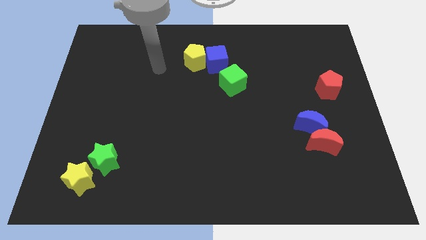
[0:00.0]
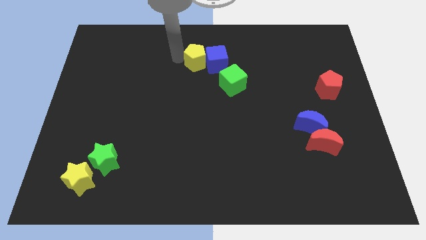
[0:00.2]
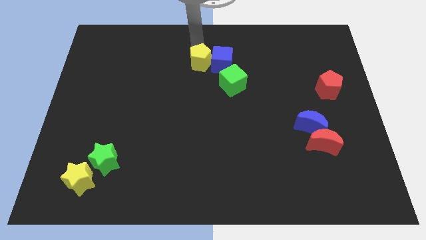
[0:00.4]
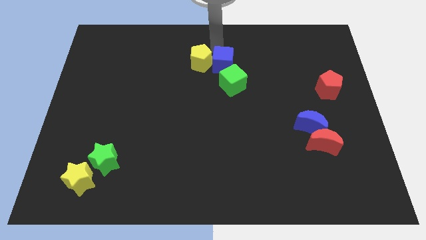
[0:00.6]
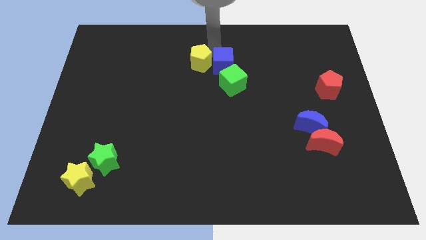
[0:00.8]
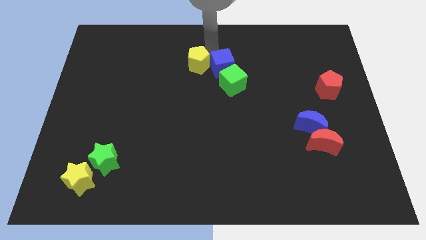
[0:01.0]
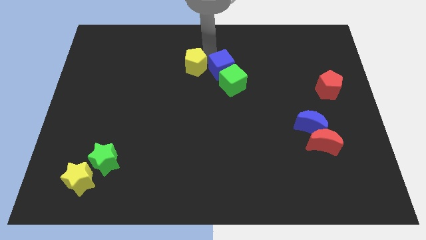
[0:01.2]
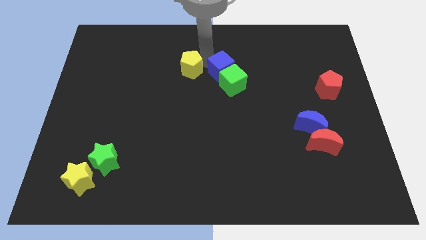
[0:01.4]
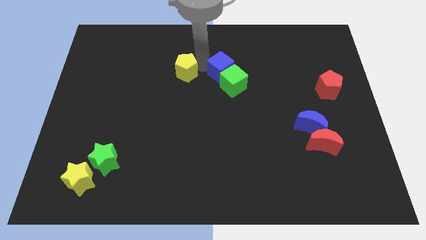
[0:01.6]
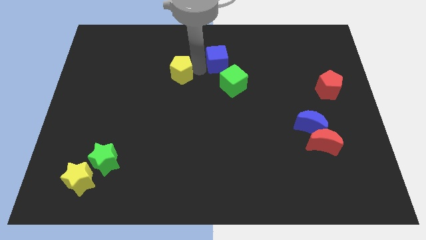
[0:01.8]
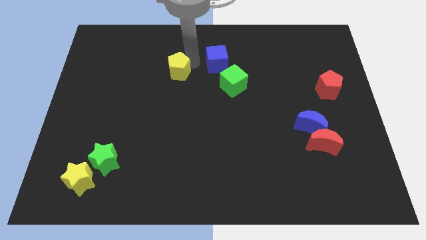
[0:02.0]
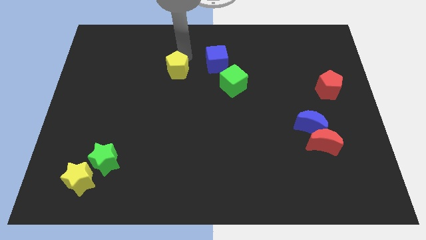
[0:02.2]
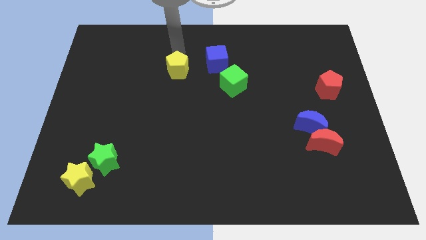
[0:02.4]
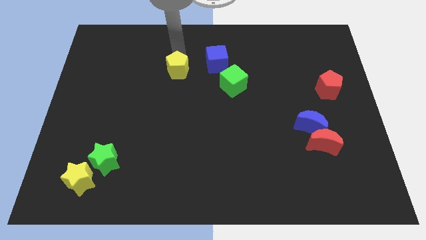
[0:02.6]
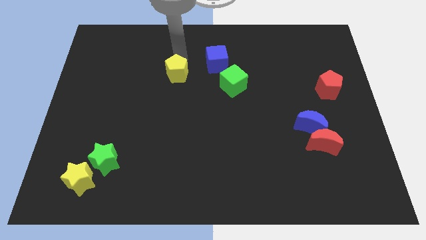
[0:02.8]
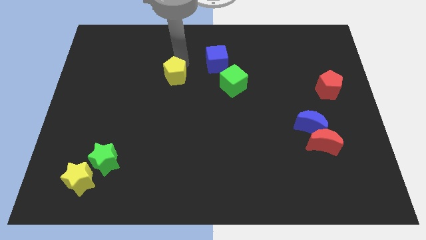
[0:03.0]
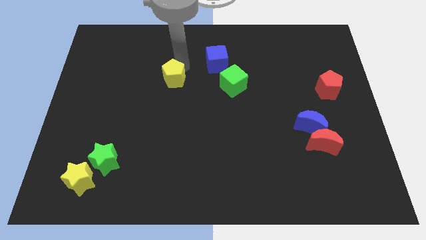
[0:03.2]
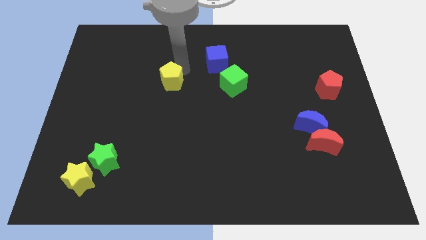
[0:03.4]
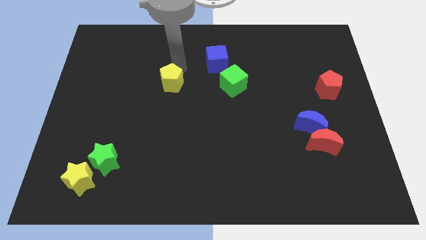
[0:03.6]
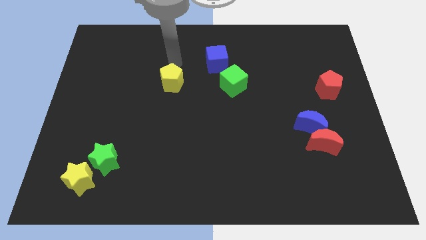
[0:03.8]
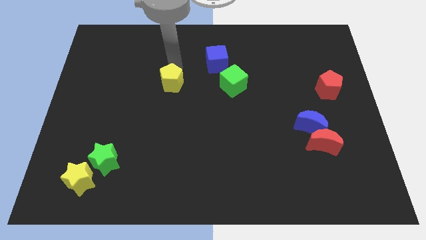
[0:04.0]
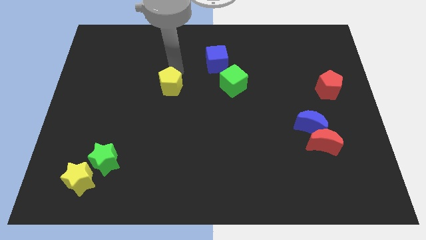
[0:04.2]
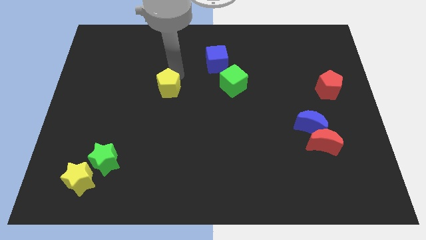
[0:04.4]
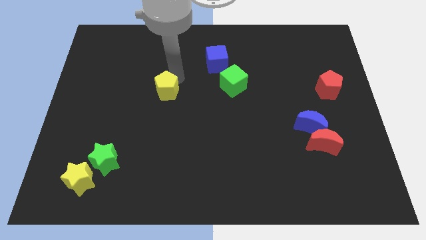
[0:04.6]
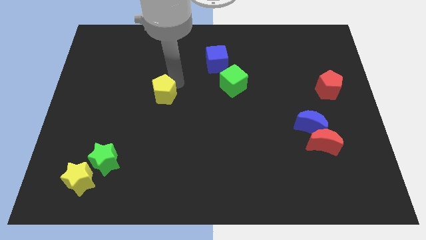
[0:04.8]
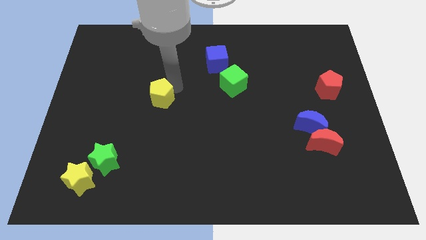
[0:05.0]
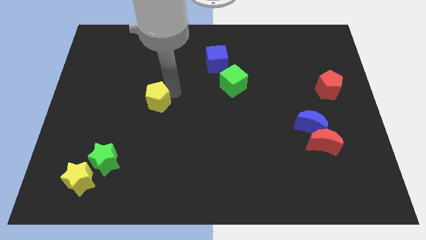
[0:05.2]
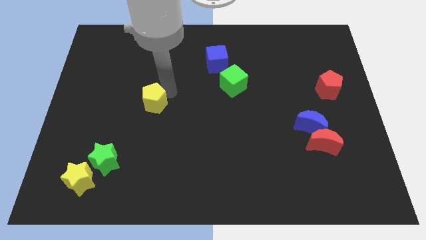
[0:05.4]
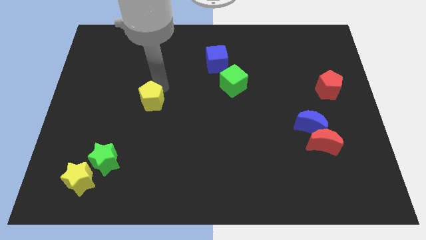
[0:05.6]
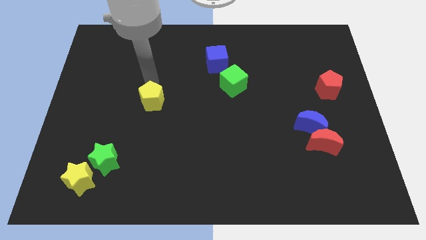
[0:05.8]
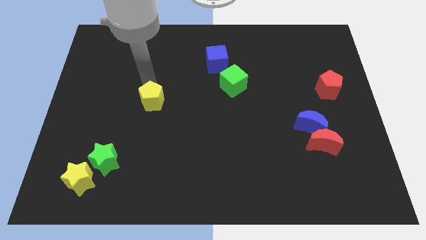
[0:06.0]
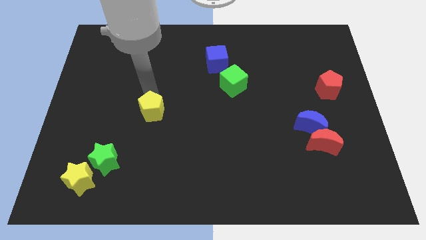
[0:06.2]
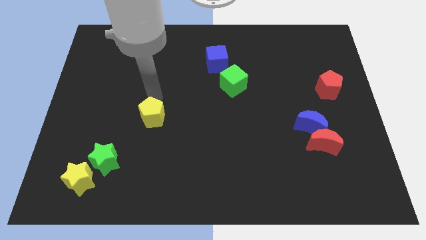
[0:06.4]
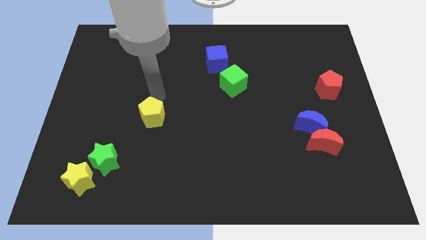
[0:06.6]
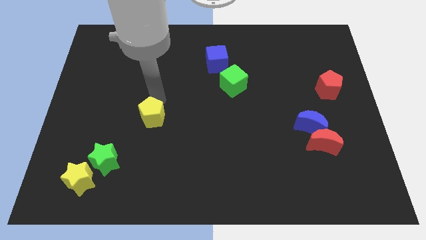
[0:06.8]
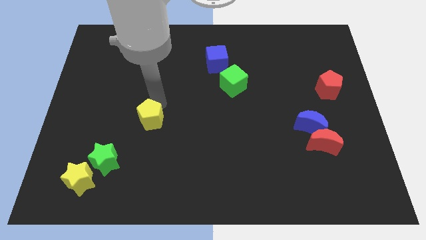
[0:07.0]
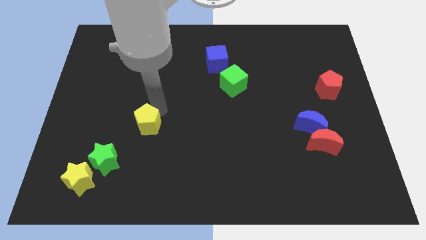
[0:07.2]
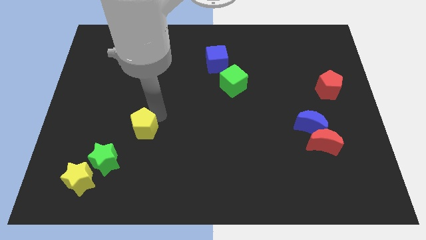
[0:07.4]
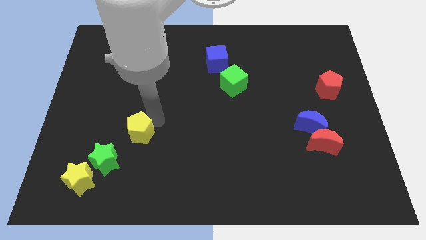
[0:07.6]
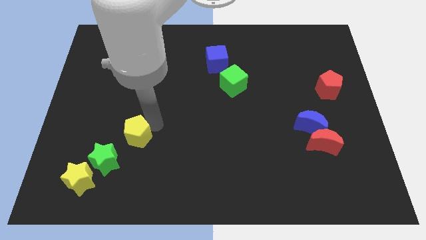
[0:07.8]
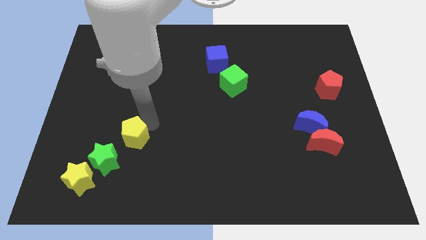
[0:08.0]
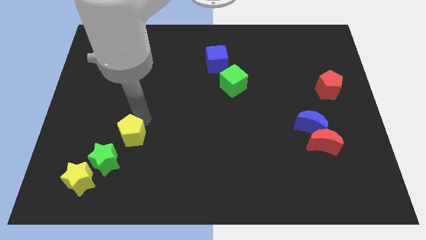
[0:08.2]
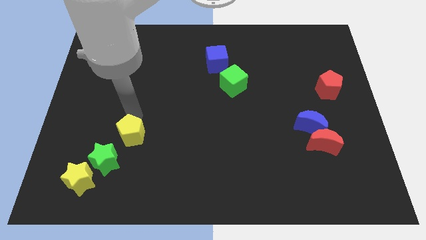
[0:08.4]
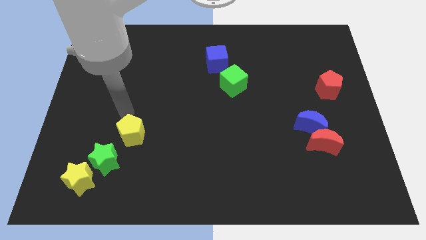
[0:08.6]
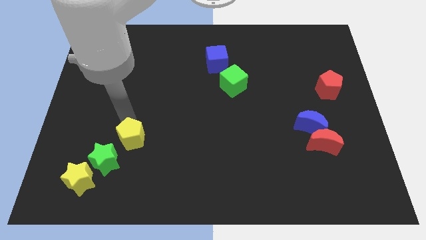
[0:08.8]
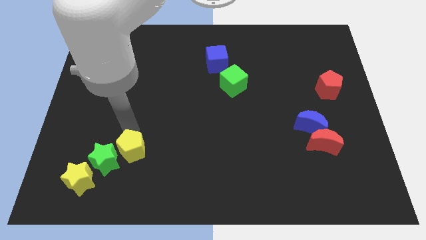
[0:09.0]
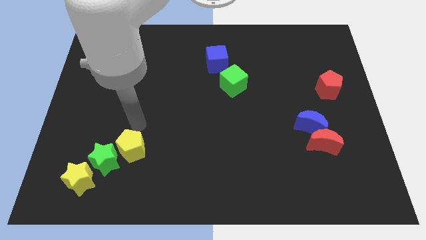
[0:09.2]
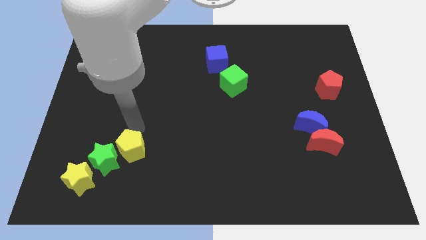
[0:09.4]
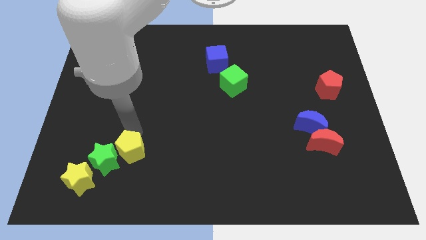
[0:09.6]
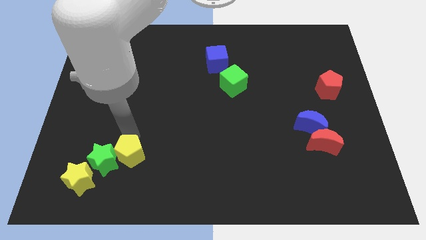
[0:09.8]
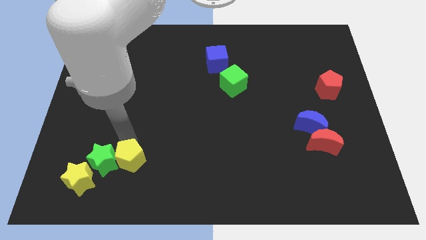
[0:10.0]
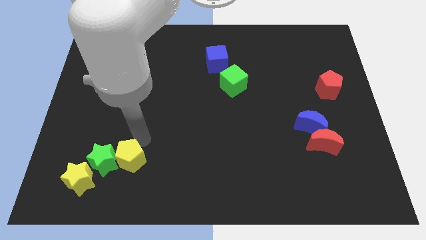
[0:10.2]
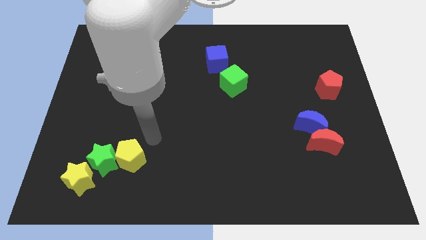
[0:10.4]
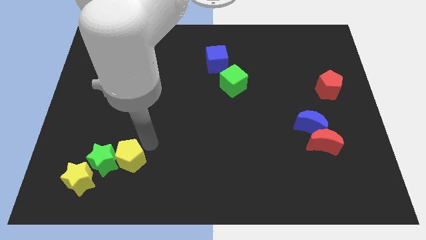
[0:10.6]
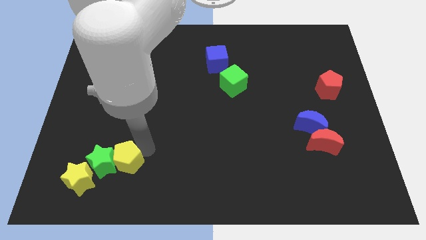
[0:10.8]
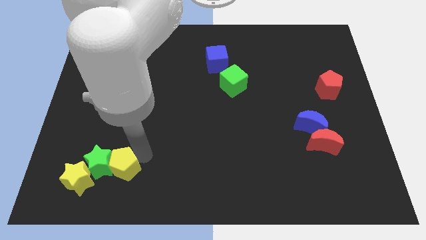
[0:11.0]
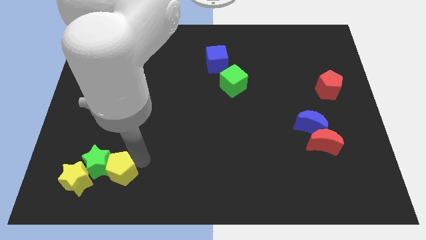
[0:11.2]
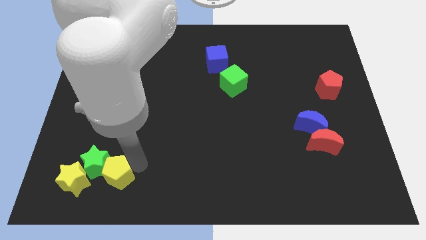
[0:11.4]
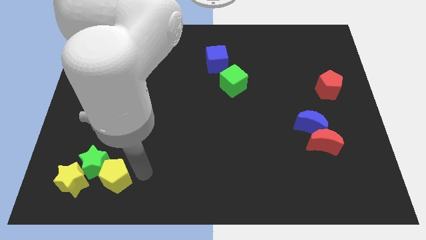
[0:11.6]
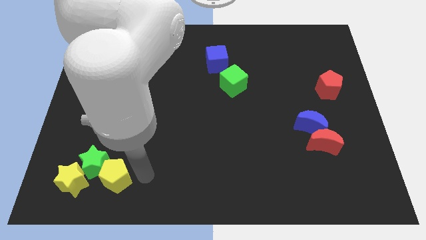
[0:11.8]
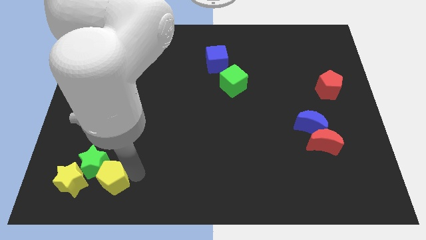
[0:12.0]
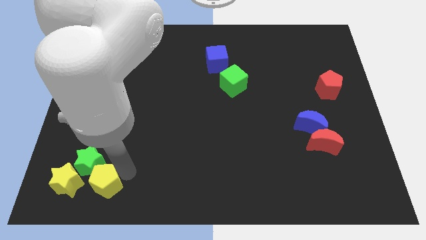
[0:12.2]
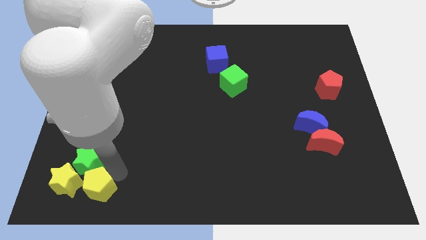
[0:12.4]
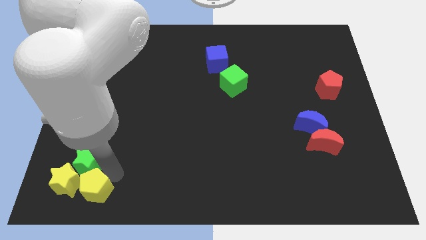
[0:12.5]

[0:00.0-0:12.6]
move the yellow pentagon next to the yellow star

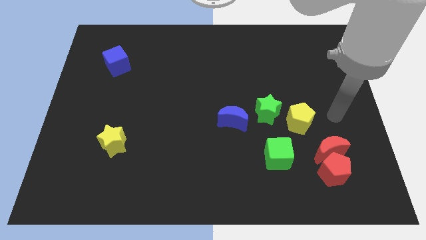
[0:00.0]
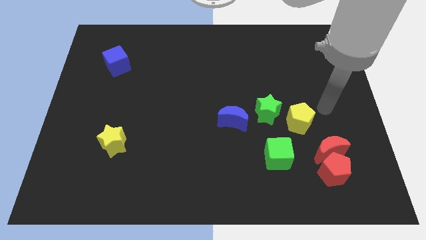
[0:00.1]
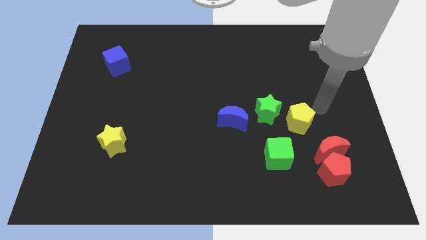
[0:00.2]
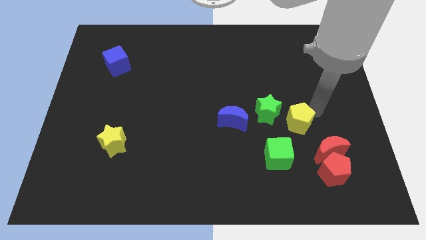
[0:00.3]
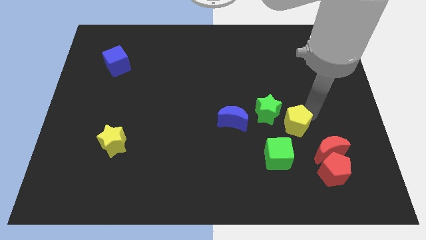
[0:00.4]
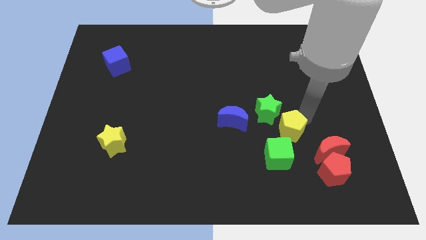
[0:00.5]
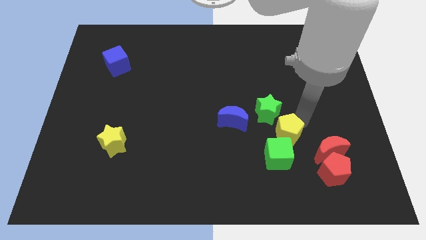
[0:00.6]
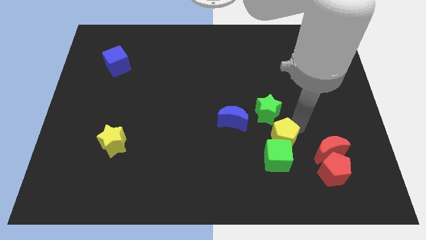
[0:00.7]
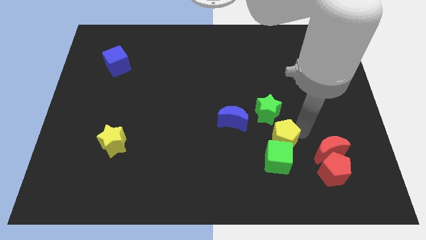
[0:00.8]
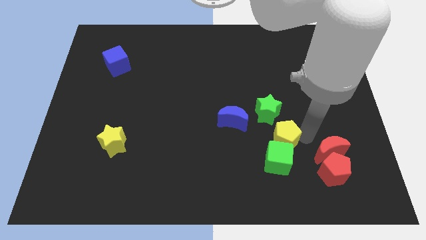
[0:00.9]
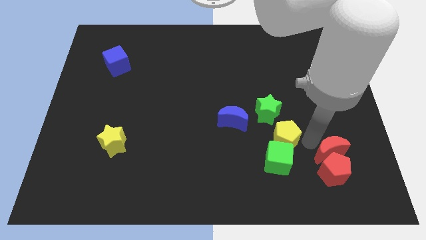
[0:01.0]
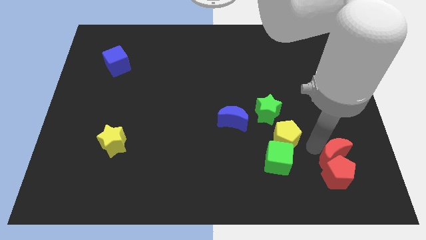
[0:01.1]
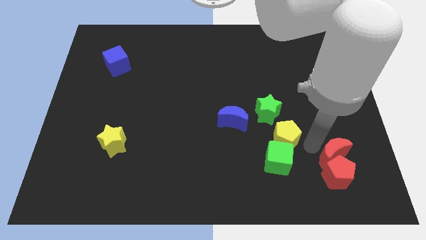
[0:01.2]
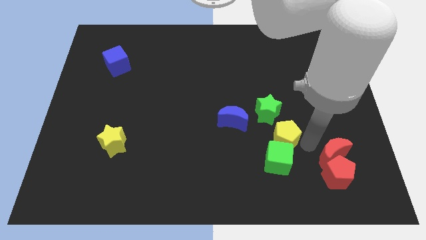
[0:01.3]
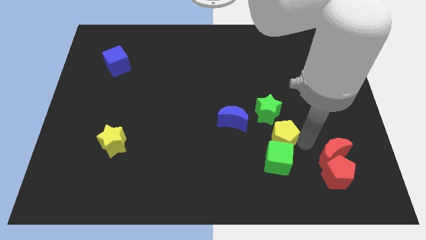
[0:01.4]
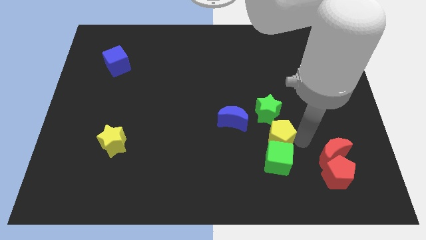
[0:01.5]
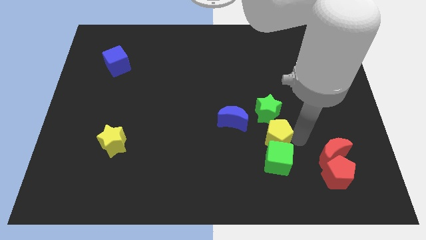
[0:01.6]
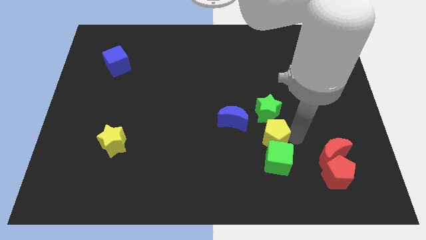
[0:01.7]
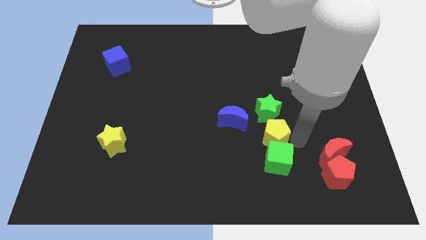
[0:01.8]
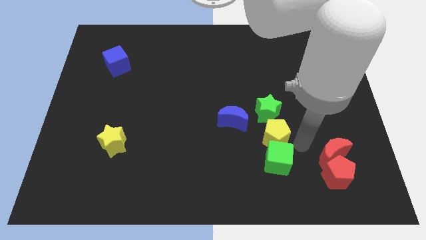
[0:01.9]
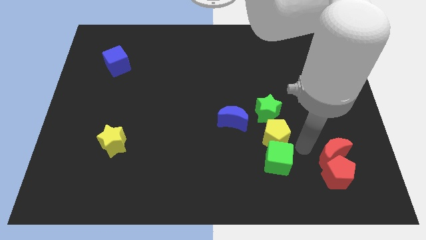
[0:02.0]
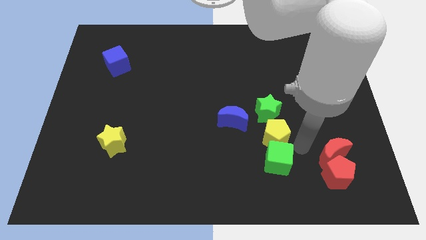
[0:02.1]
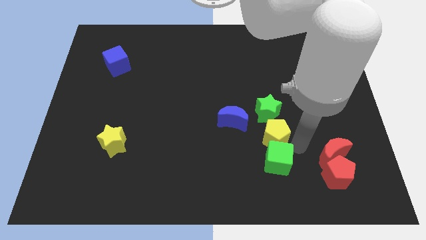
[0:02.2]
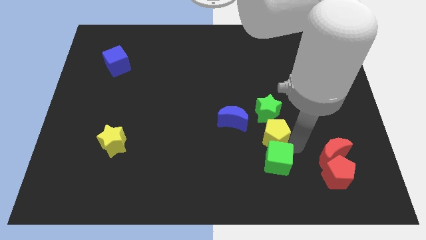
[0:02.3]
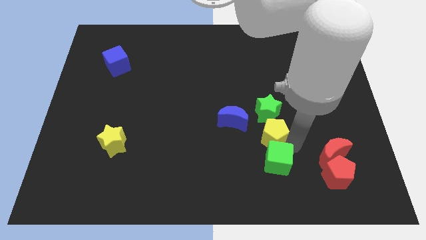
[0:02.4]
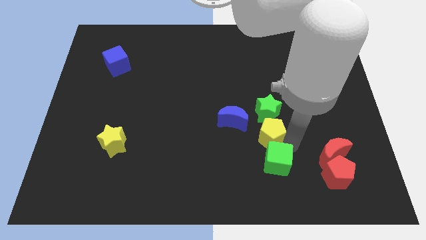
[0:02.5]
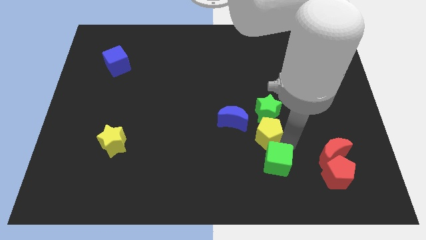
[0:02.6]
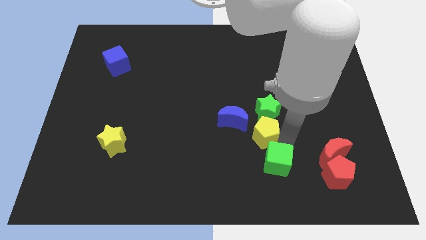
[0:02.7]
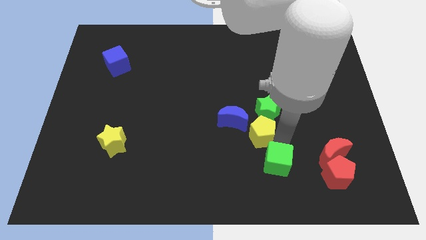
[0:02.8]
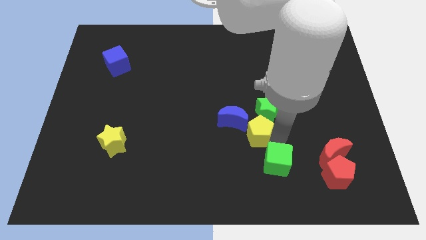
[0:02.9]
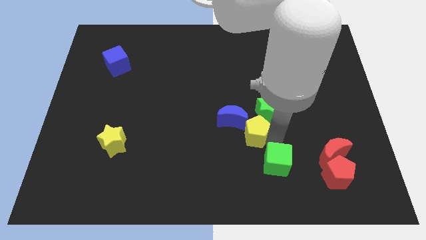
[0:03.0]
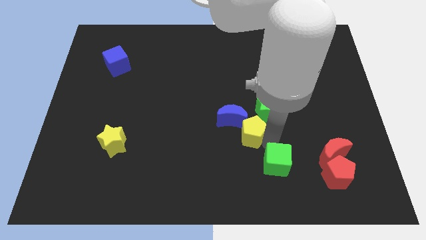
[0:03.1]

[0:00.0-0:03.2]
push the yellow pentagon close to the blue moon
